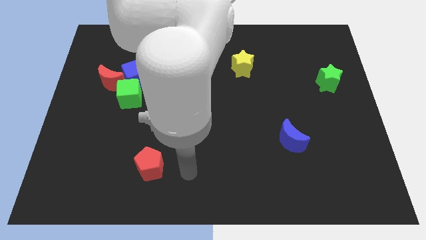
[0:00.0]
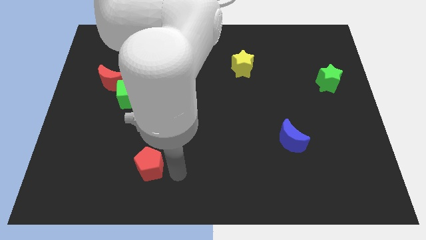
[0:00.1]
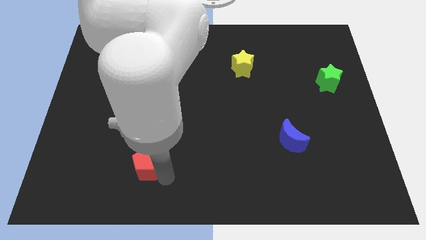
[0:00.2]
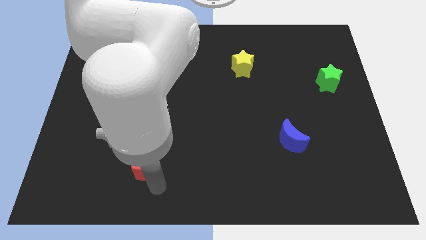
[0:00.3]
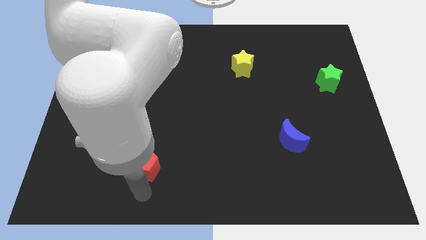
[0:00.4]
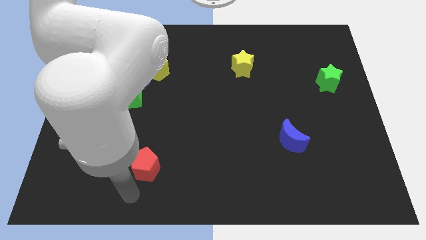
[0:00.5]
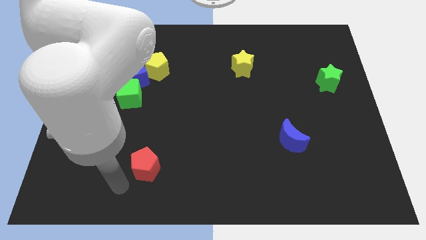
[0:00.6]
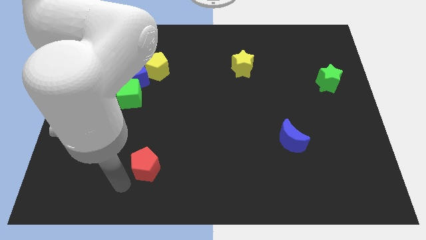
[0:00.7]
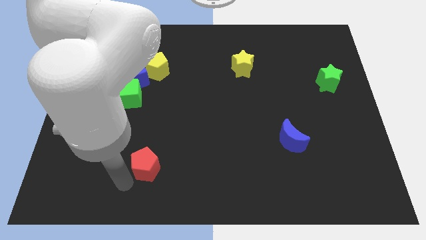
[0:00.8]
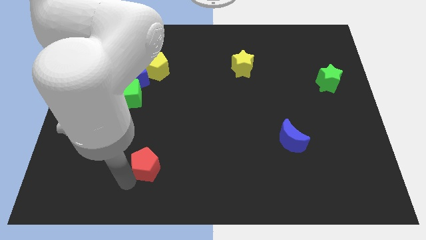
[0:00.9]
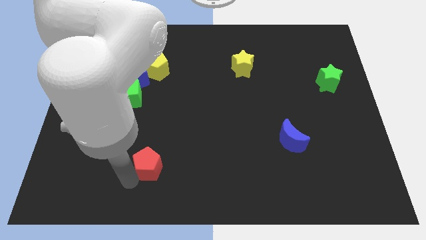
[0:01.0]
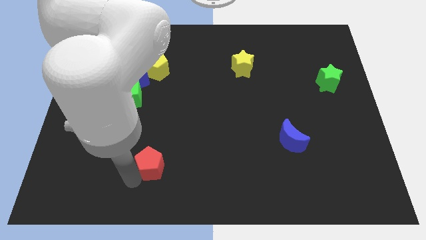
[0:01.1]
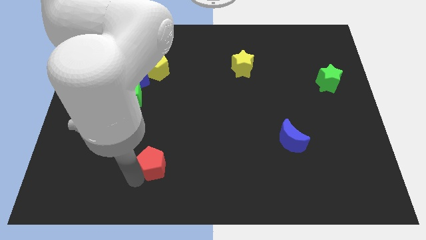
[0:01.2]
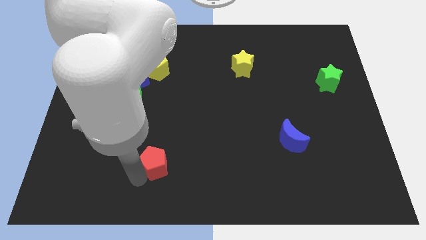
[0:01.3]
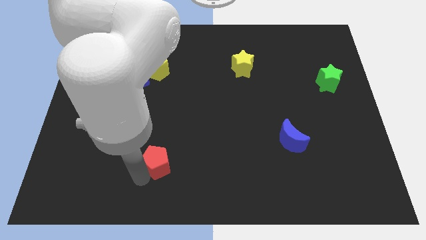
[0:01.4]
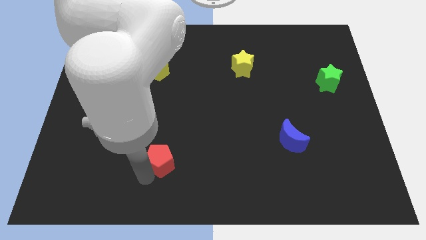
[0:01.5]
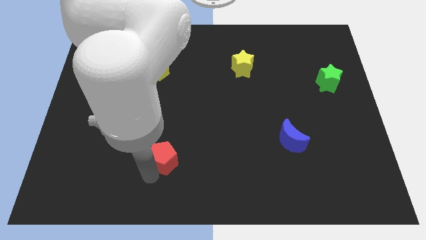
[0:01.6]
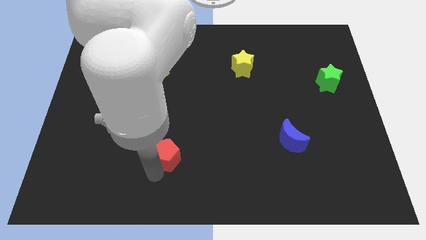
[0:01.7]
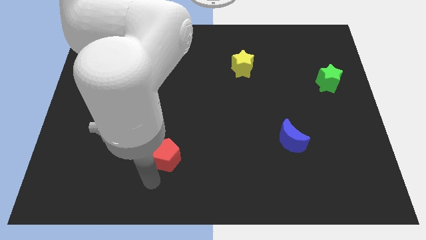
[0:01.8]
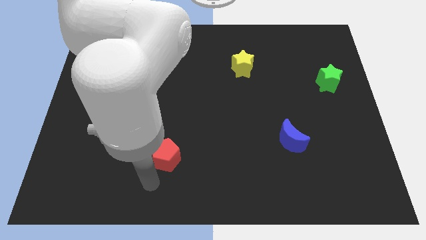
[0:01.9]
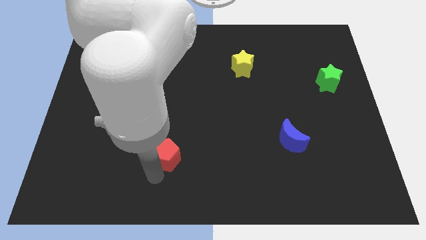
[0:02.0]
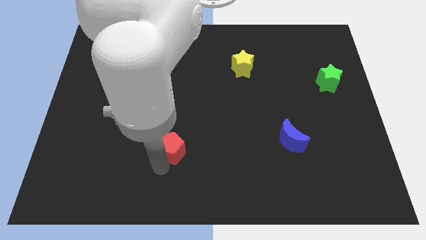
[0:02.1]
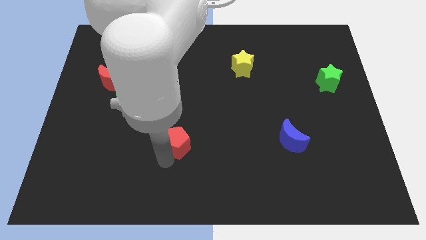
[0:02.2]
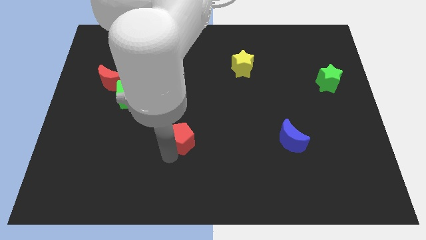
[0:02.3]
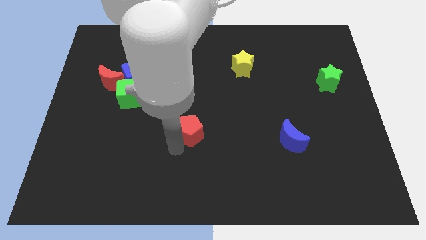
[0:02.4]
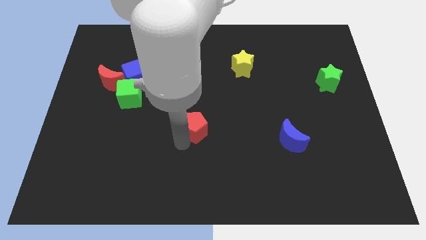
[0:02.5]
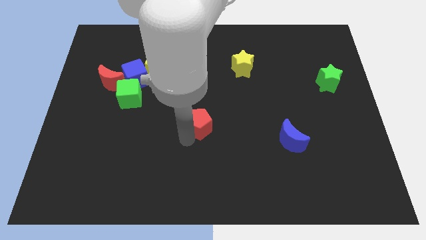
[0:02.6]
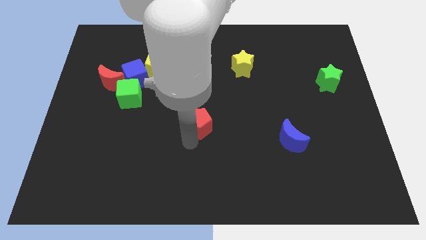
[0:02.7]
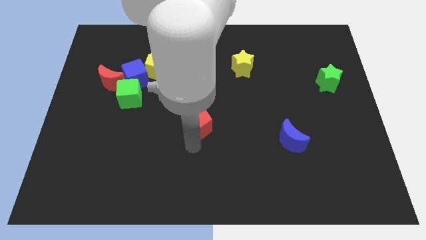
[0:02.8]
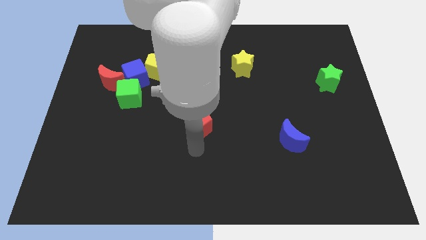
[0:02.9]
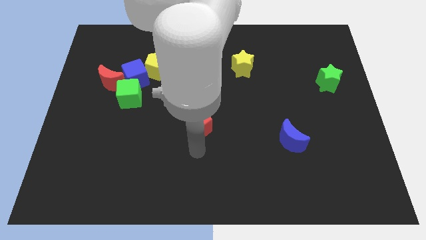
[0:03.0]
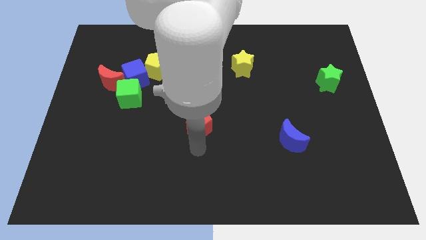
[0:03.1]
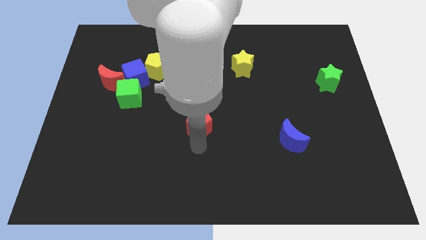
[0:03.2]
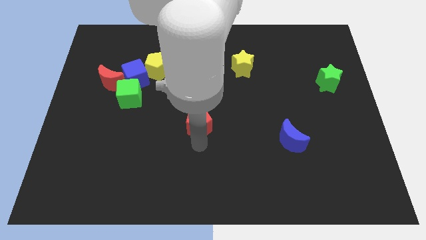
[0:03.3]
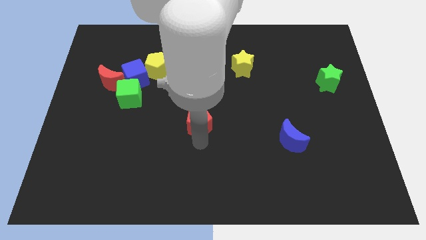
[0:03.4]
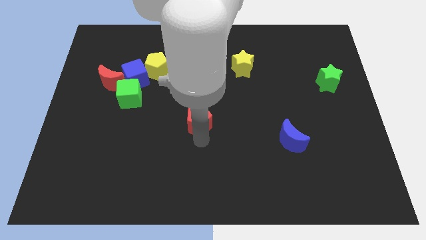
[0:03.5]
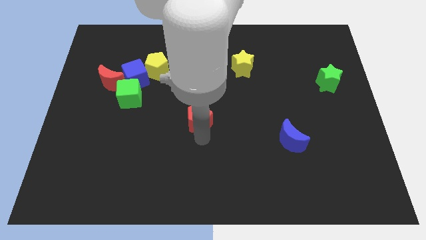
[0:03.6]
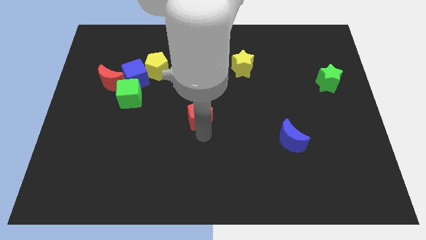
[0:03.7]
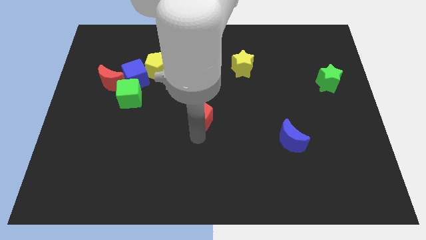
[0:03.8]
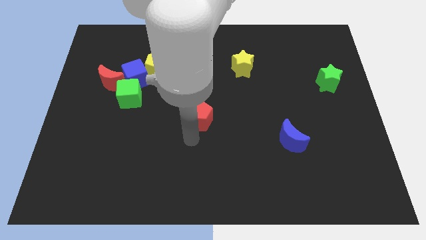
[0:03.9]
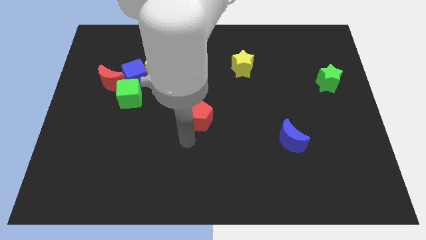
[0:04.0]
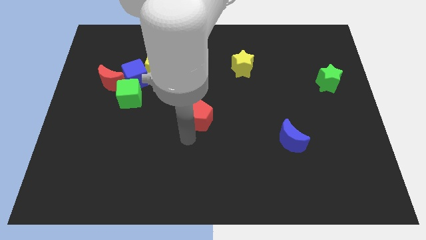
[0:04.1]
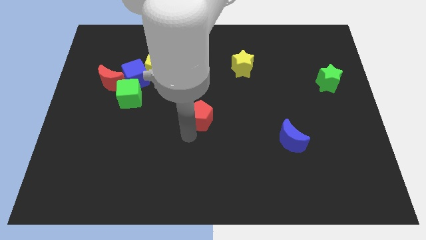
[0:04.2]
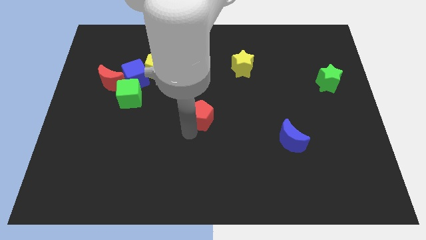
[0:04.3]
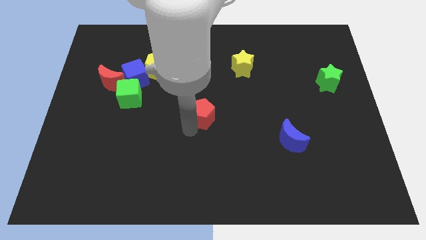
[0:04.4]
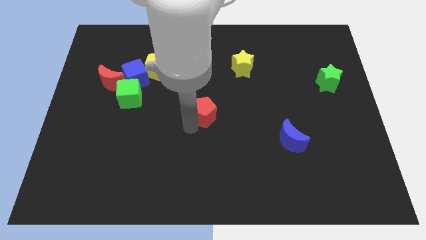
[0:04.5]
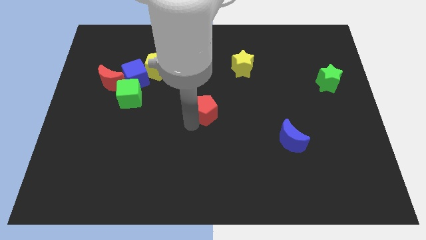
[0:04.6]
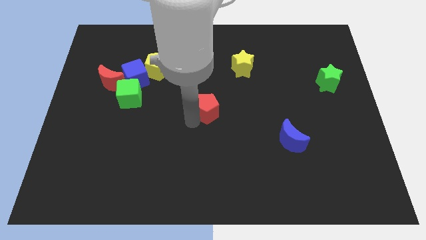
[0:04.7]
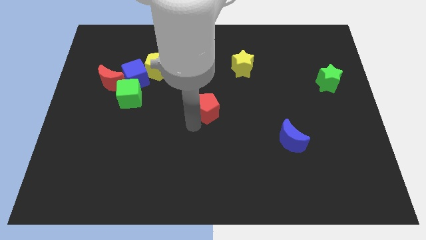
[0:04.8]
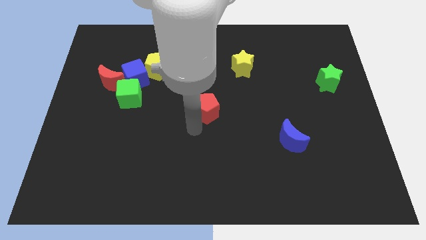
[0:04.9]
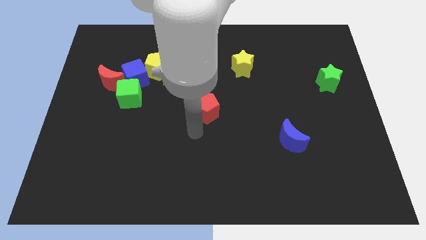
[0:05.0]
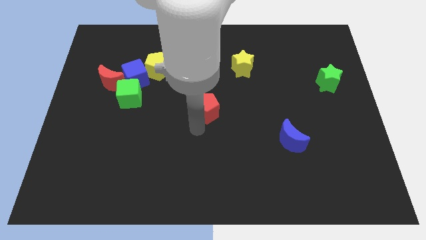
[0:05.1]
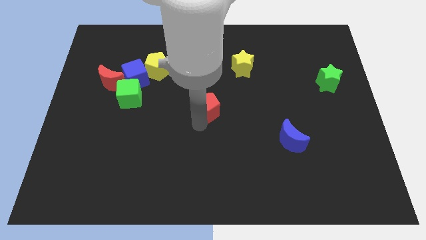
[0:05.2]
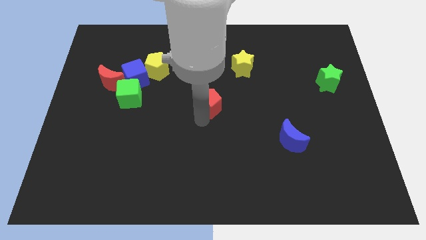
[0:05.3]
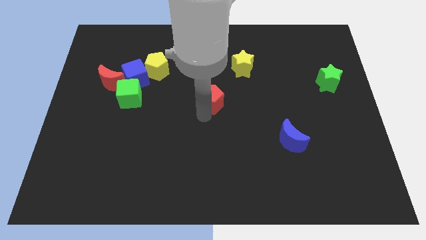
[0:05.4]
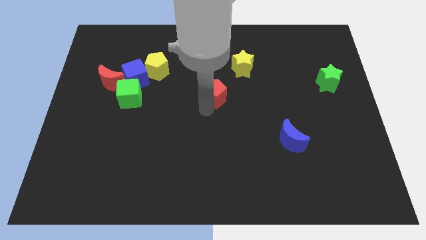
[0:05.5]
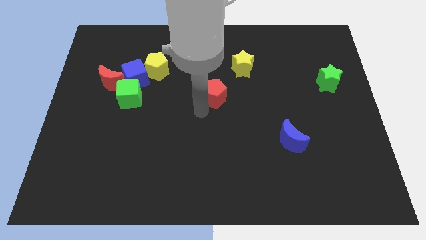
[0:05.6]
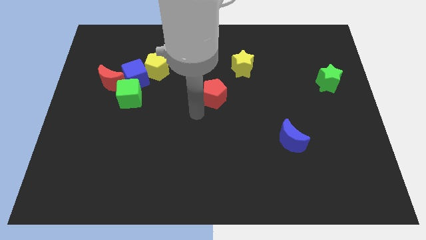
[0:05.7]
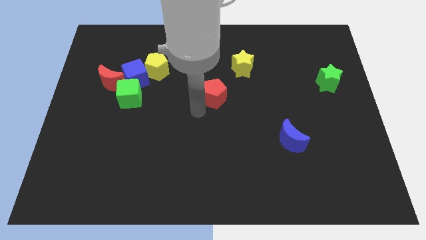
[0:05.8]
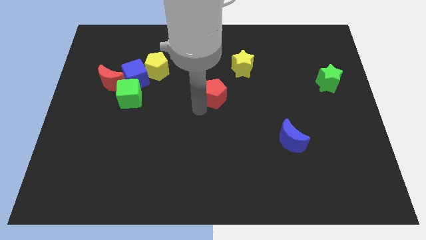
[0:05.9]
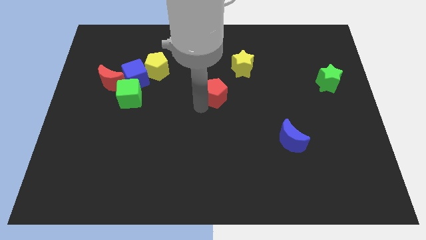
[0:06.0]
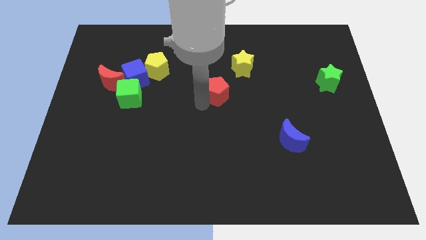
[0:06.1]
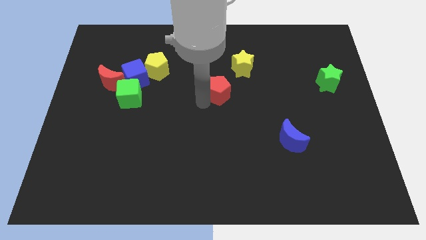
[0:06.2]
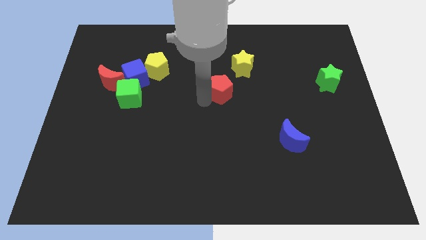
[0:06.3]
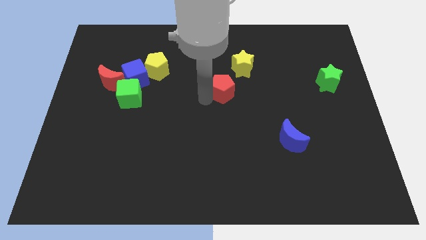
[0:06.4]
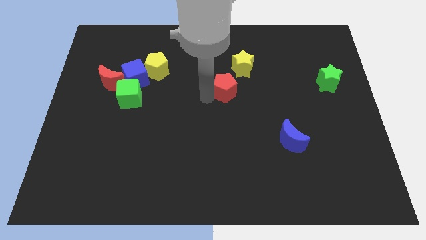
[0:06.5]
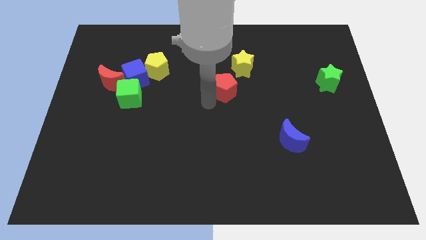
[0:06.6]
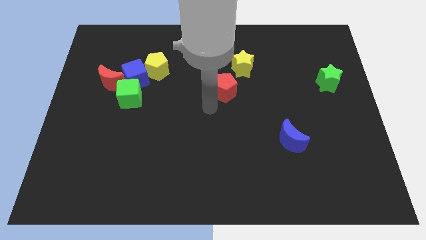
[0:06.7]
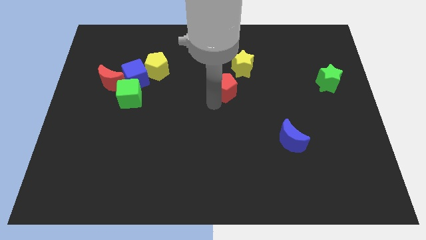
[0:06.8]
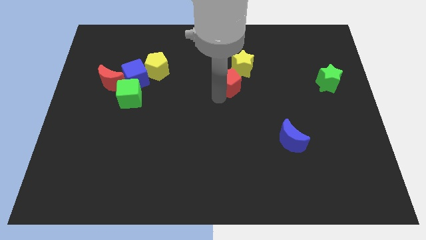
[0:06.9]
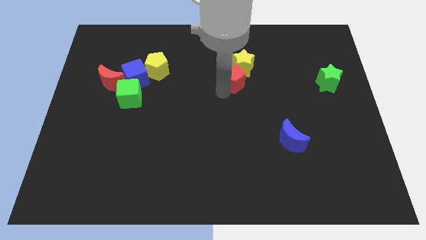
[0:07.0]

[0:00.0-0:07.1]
move the red pentagon towards the yellow star

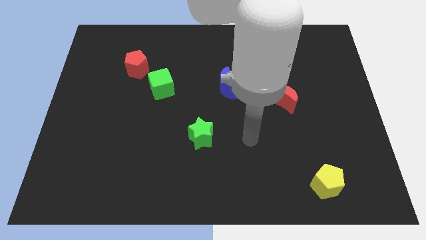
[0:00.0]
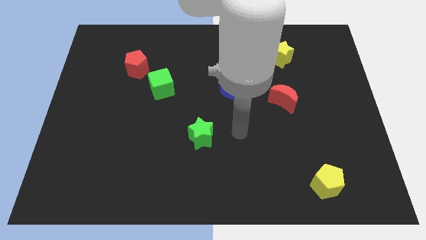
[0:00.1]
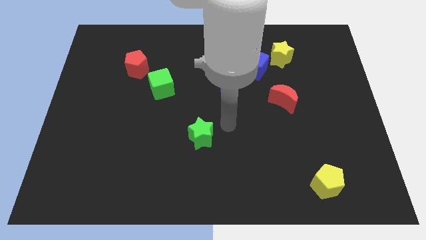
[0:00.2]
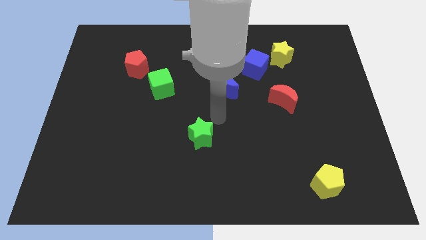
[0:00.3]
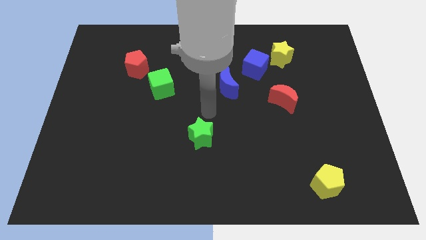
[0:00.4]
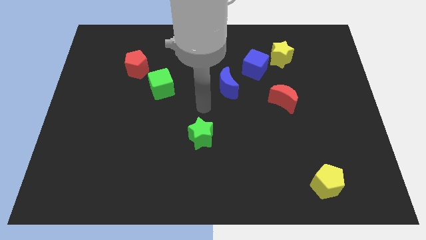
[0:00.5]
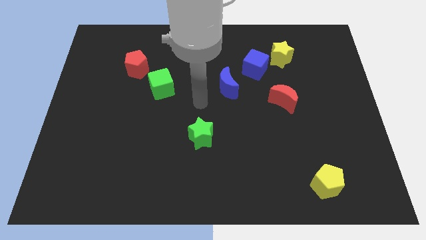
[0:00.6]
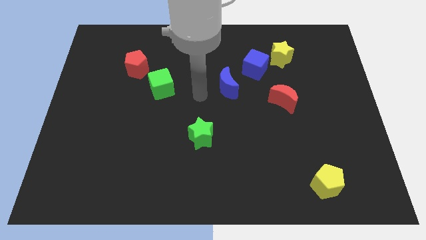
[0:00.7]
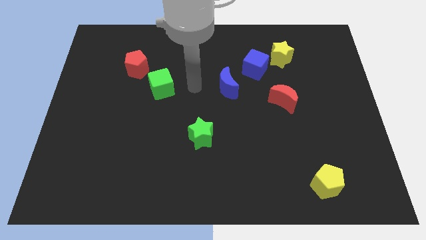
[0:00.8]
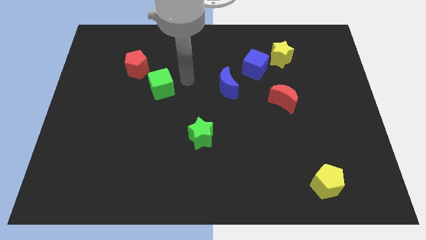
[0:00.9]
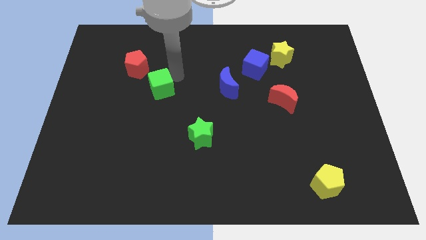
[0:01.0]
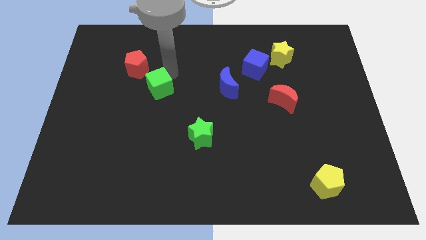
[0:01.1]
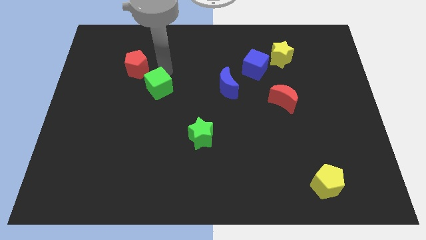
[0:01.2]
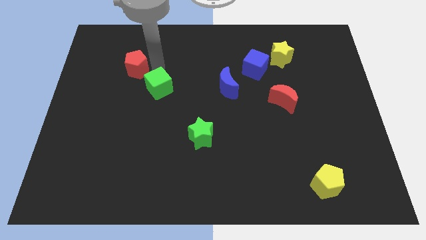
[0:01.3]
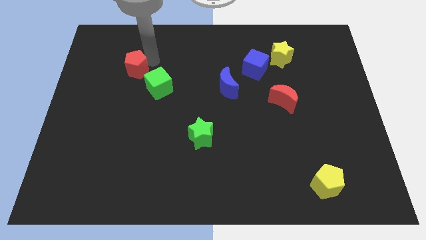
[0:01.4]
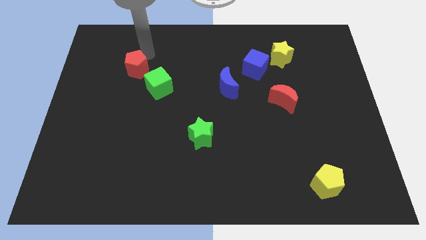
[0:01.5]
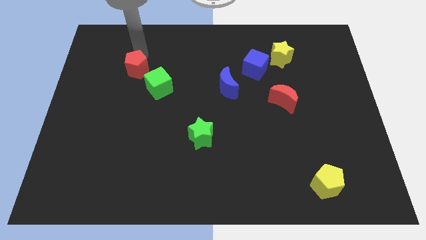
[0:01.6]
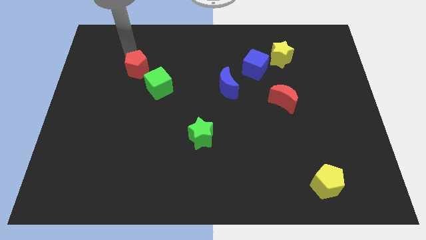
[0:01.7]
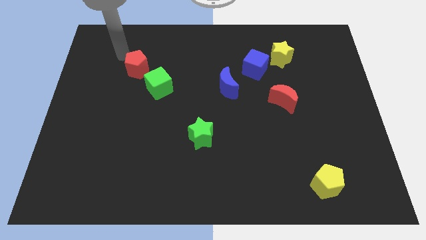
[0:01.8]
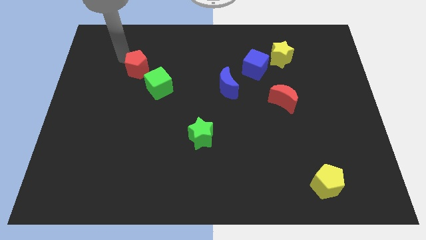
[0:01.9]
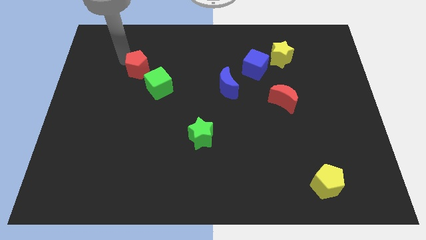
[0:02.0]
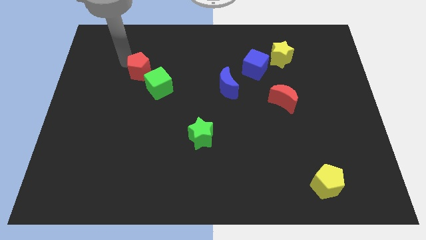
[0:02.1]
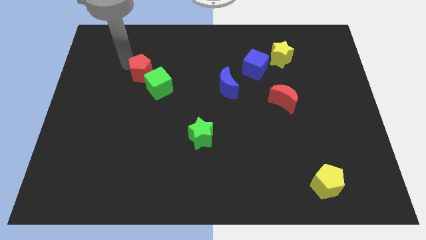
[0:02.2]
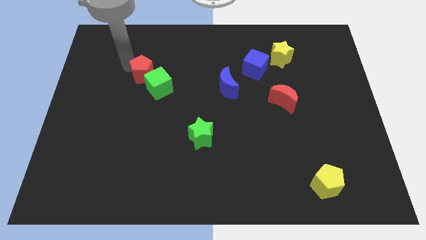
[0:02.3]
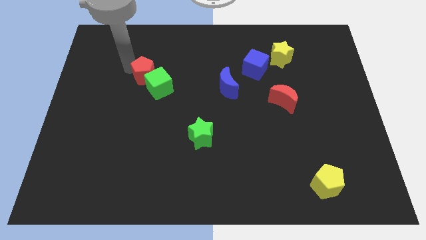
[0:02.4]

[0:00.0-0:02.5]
slide the red pentagon close to the green cube
